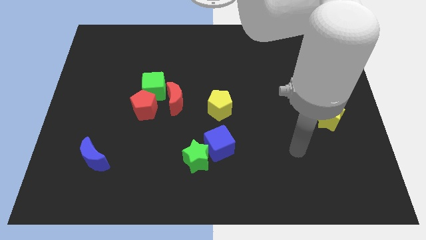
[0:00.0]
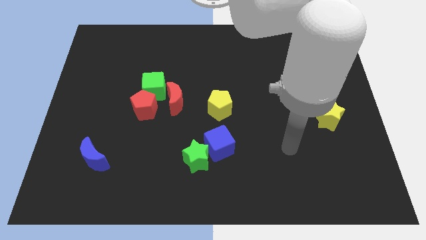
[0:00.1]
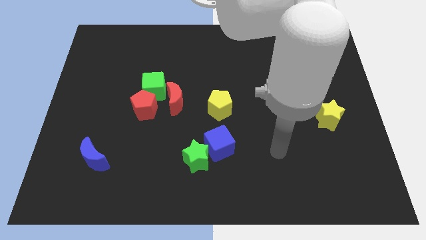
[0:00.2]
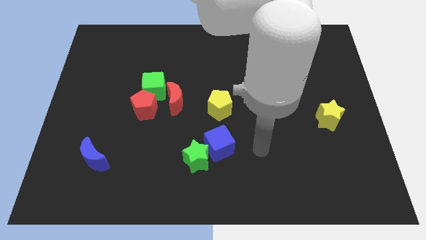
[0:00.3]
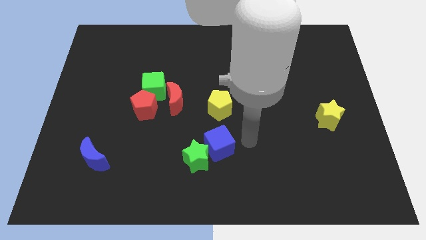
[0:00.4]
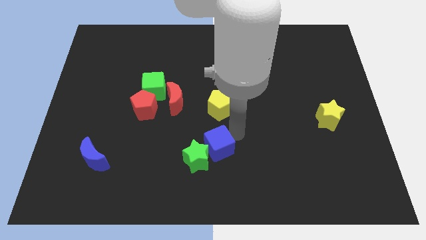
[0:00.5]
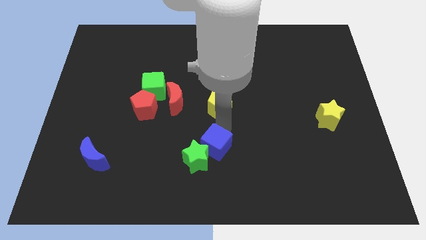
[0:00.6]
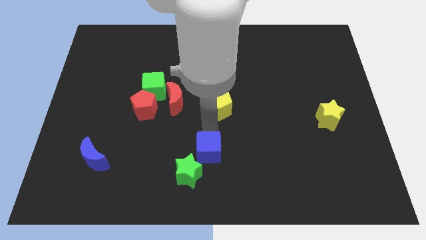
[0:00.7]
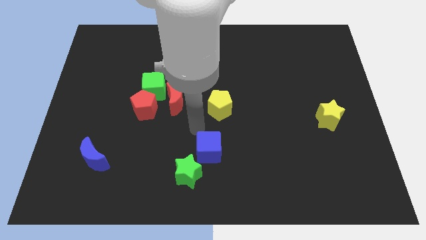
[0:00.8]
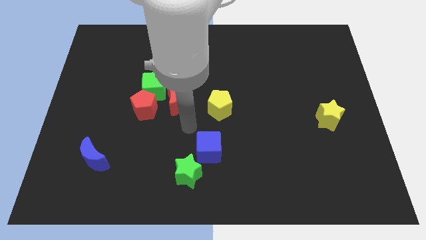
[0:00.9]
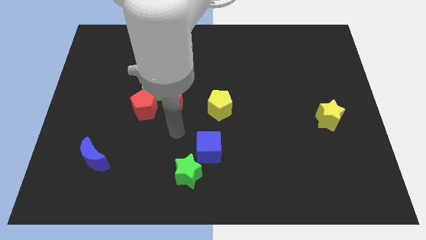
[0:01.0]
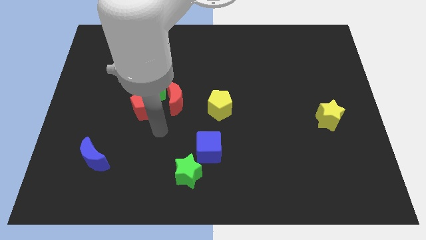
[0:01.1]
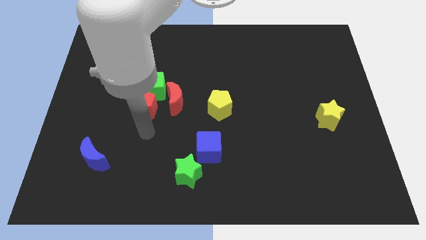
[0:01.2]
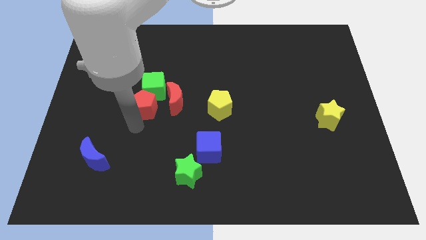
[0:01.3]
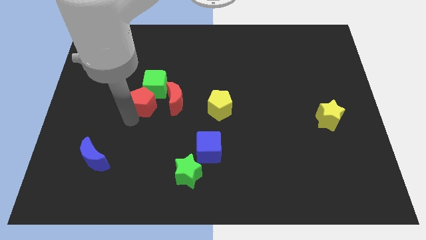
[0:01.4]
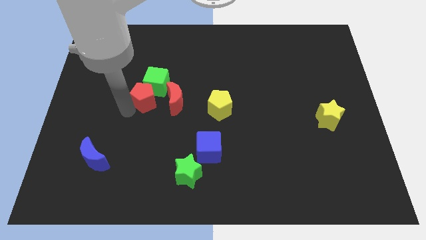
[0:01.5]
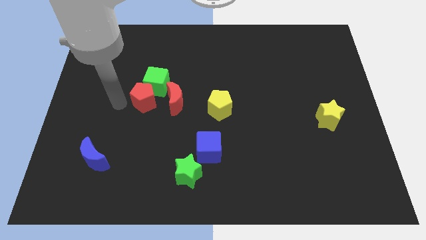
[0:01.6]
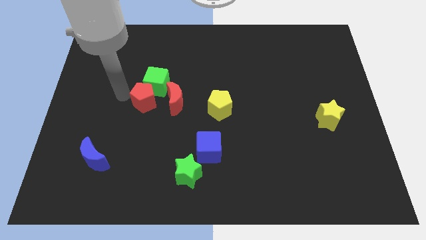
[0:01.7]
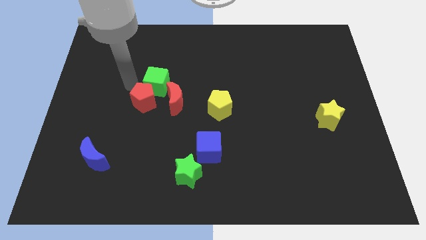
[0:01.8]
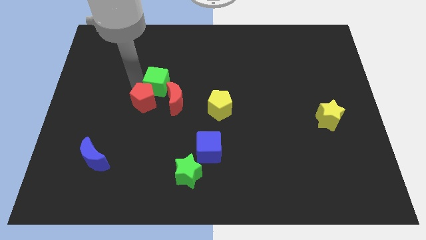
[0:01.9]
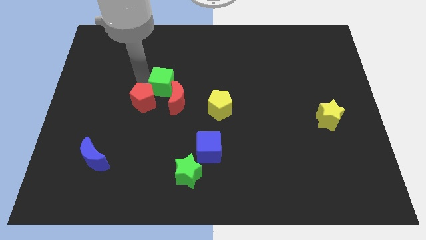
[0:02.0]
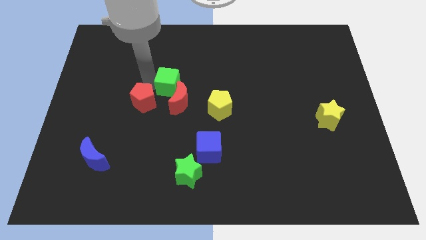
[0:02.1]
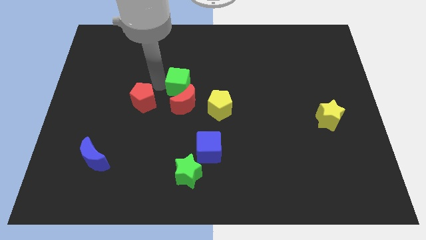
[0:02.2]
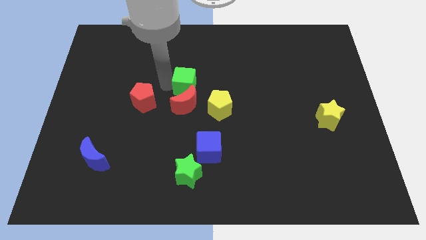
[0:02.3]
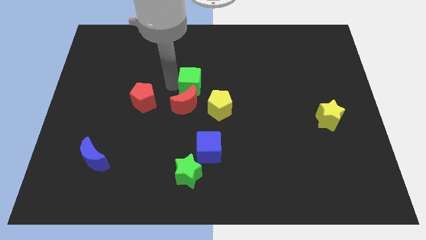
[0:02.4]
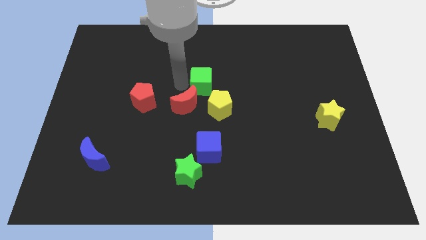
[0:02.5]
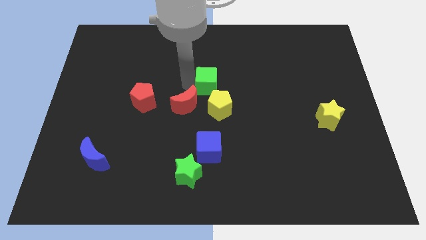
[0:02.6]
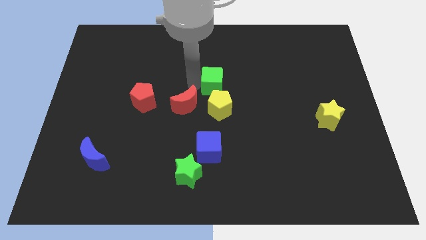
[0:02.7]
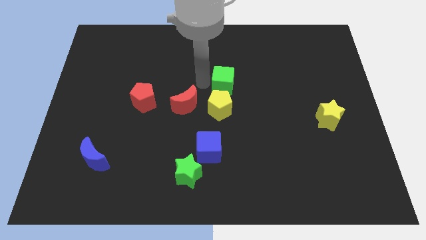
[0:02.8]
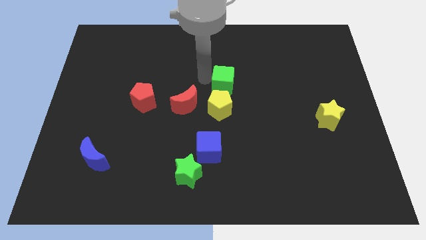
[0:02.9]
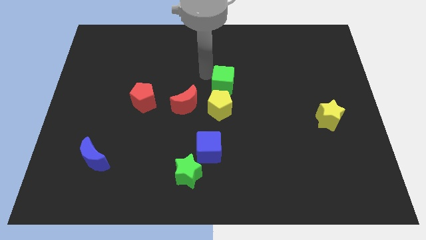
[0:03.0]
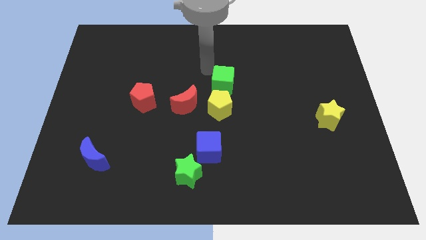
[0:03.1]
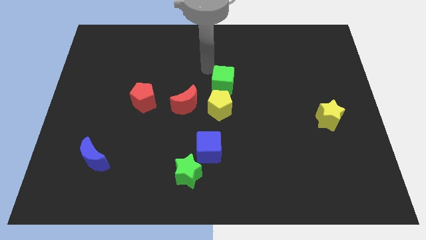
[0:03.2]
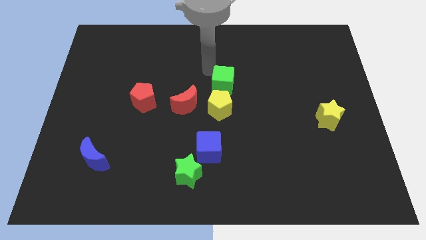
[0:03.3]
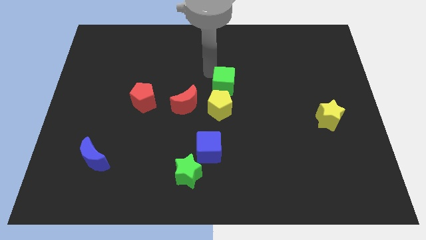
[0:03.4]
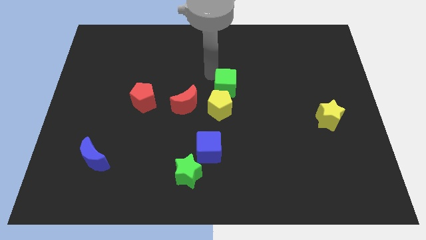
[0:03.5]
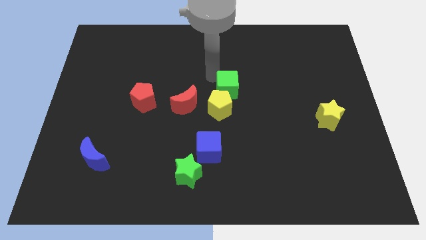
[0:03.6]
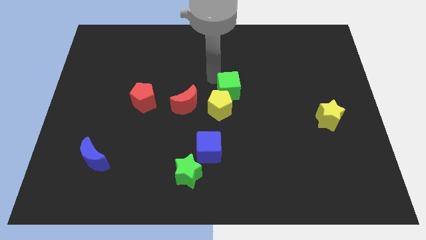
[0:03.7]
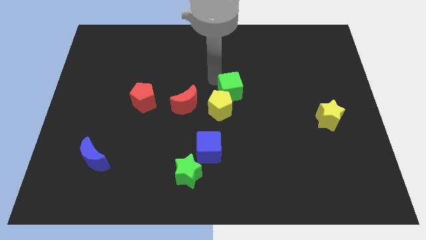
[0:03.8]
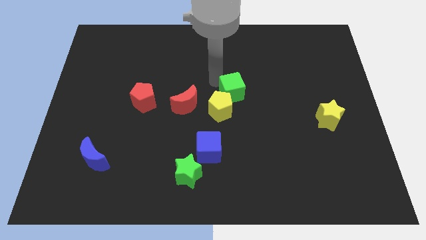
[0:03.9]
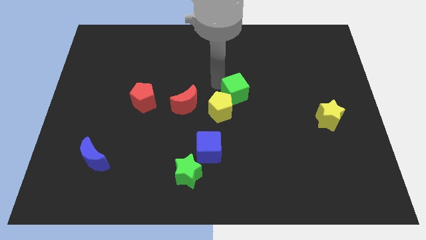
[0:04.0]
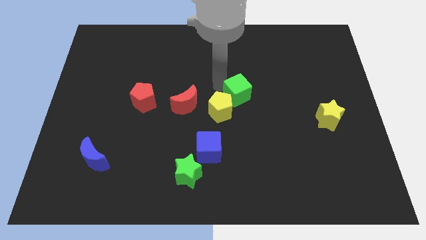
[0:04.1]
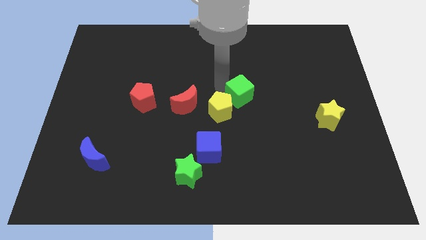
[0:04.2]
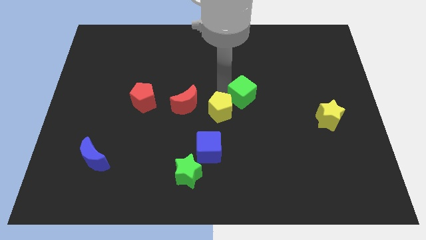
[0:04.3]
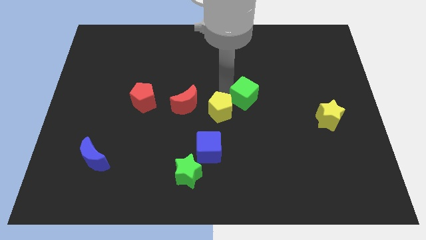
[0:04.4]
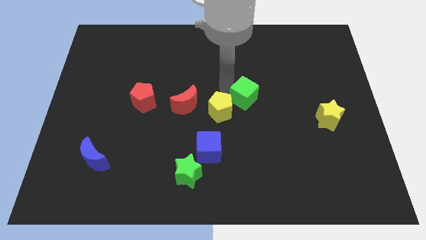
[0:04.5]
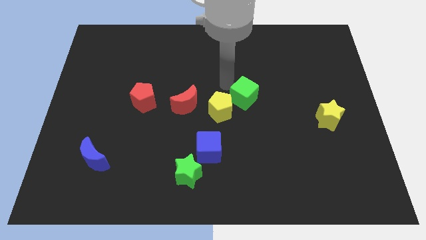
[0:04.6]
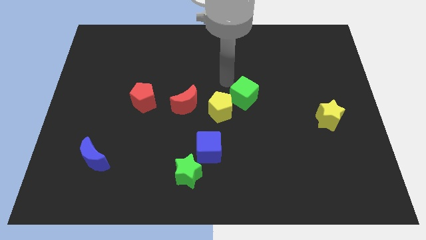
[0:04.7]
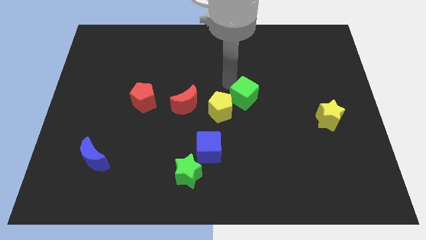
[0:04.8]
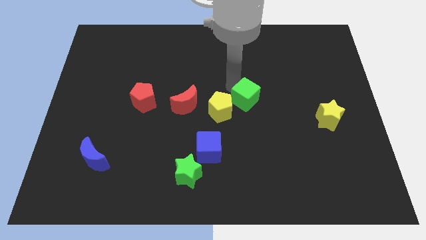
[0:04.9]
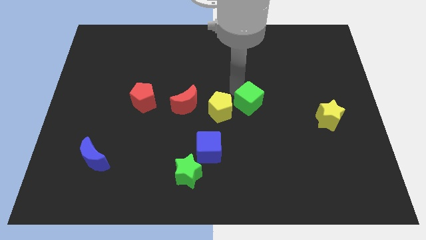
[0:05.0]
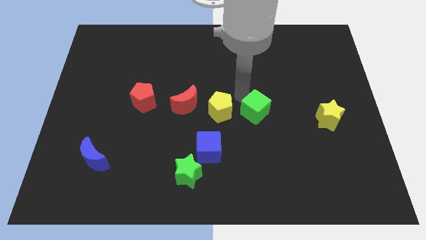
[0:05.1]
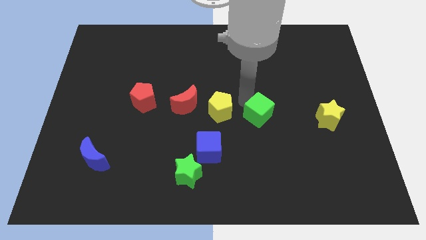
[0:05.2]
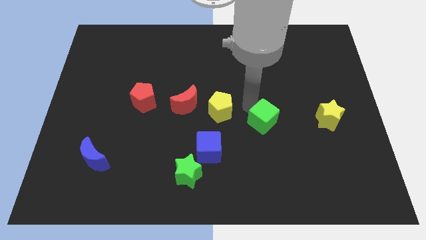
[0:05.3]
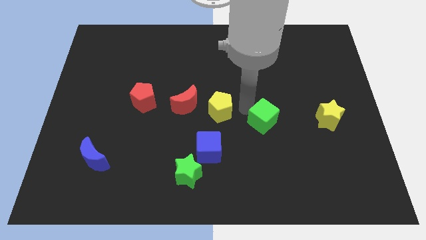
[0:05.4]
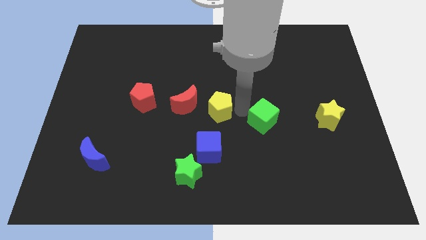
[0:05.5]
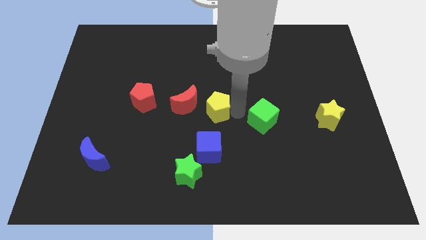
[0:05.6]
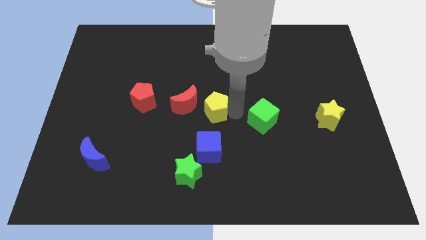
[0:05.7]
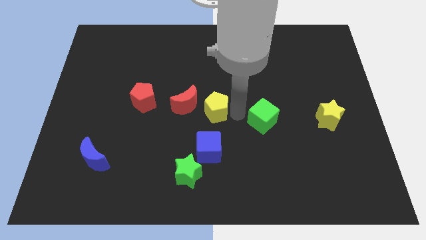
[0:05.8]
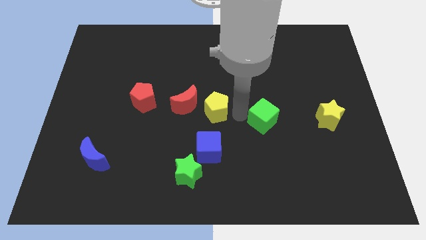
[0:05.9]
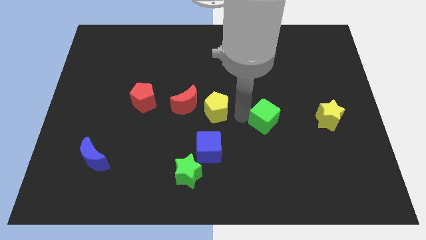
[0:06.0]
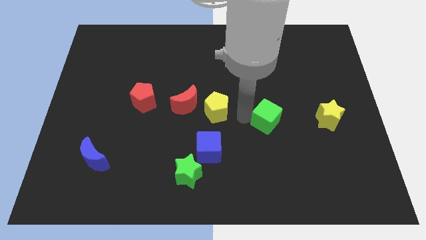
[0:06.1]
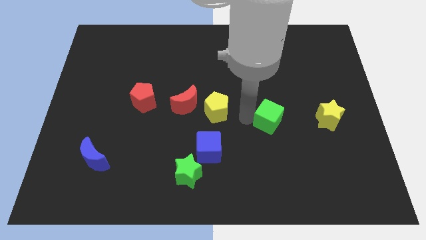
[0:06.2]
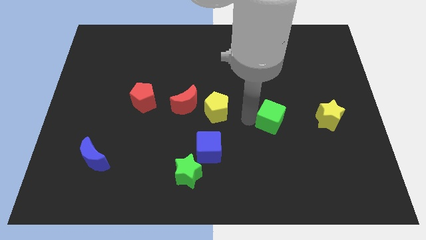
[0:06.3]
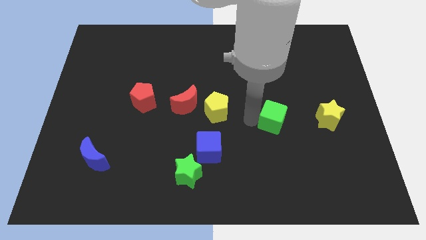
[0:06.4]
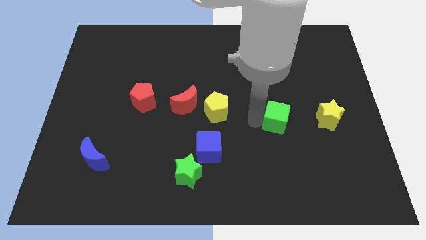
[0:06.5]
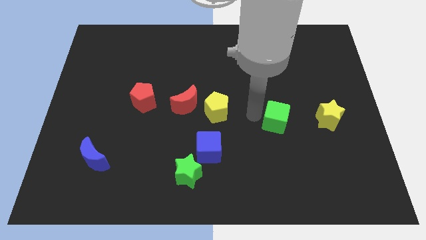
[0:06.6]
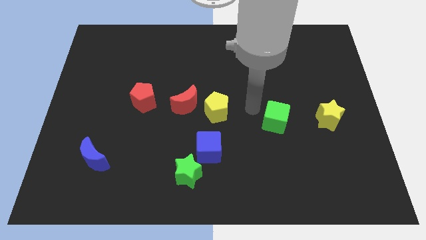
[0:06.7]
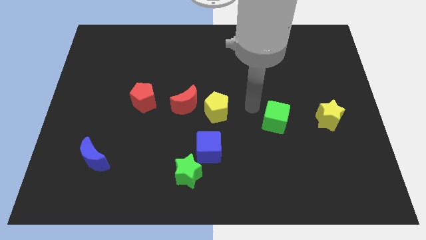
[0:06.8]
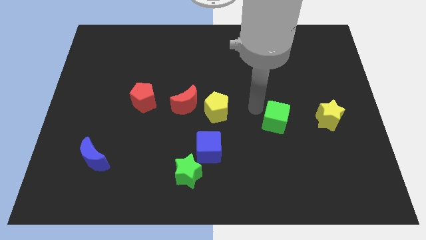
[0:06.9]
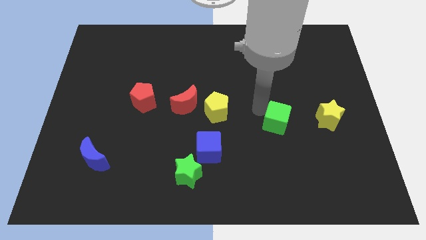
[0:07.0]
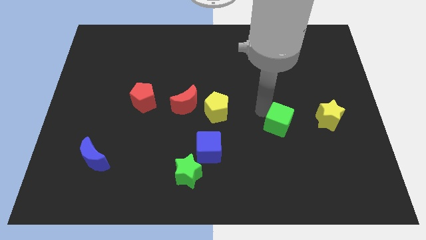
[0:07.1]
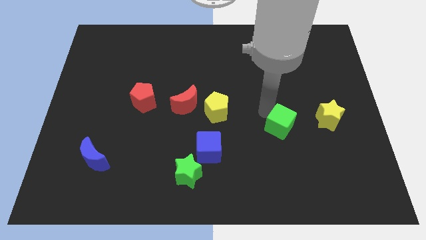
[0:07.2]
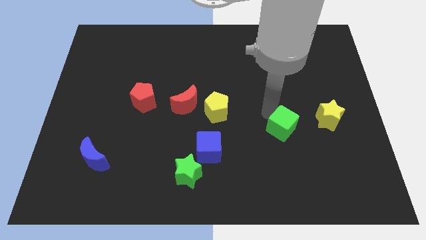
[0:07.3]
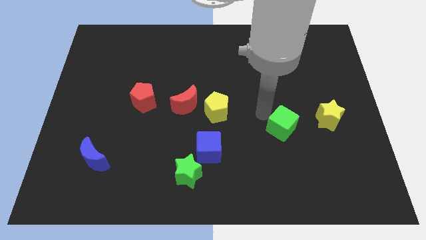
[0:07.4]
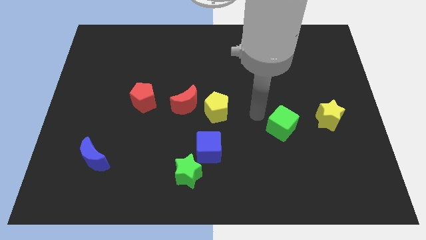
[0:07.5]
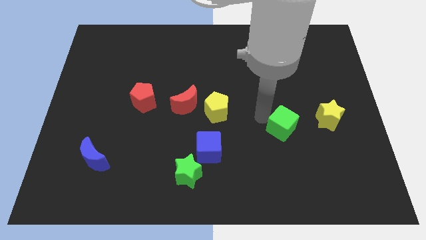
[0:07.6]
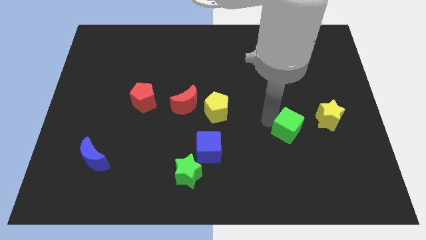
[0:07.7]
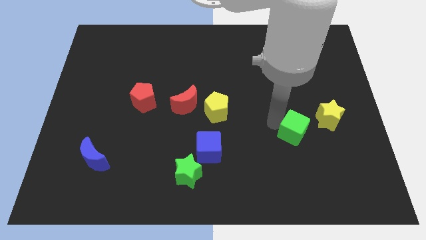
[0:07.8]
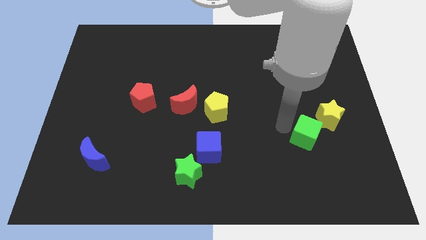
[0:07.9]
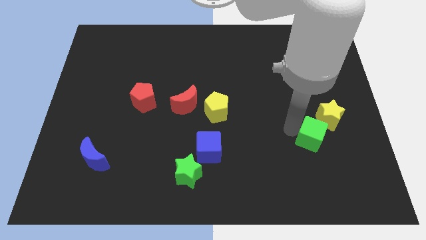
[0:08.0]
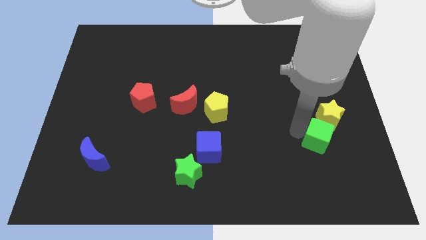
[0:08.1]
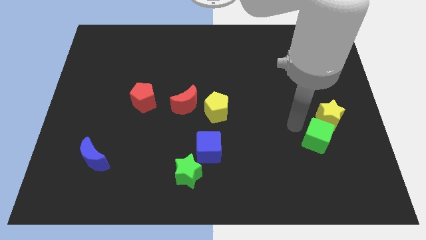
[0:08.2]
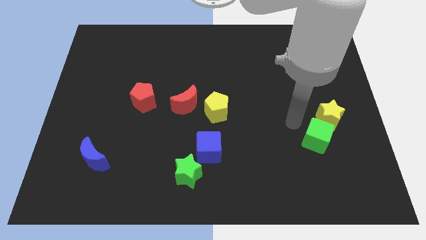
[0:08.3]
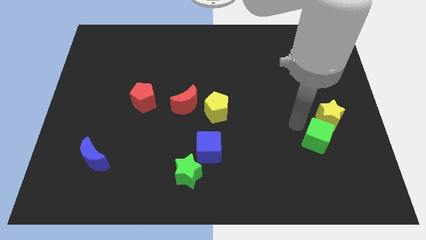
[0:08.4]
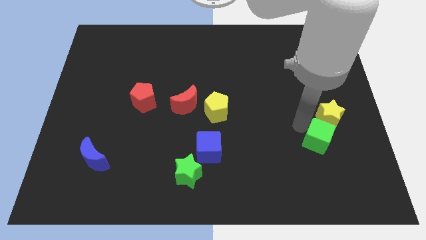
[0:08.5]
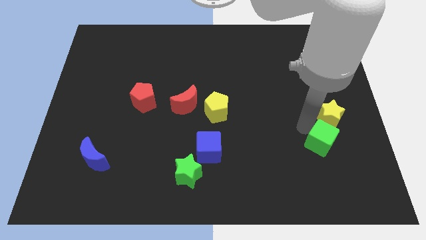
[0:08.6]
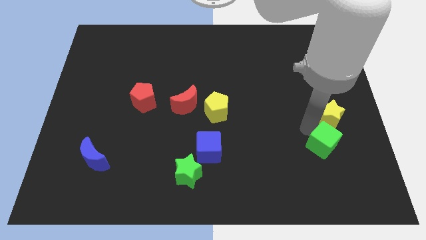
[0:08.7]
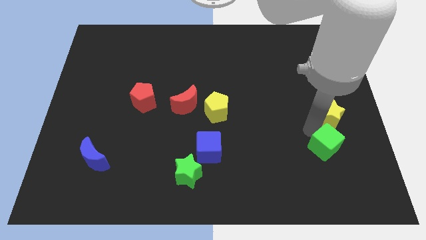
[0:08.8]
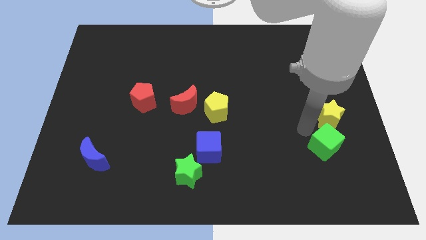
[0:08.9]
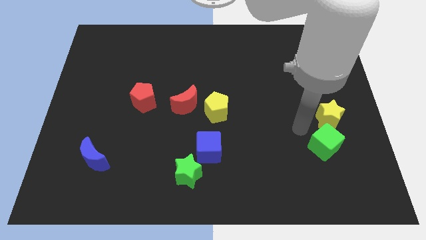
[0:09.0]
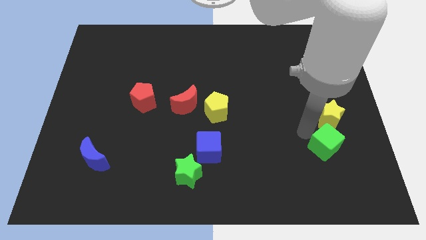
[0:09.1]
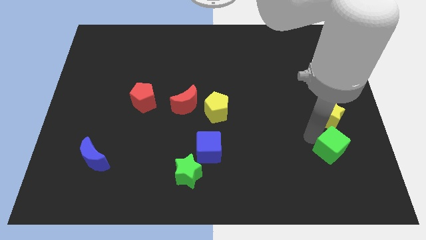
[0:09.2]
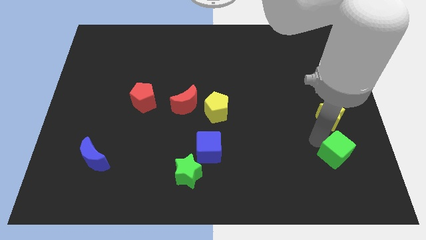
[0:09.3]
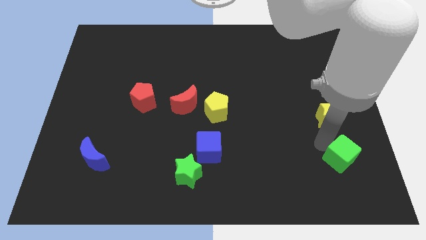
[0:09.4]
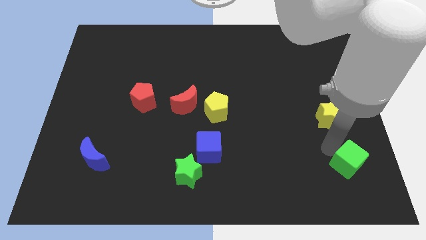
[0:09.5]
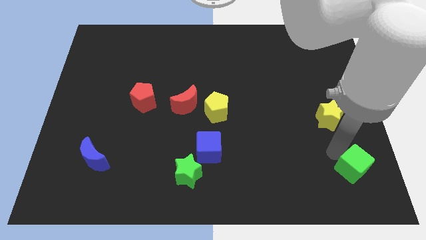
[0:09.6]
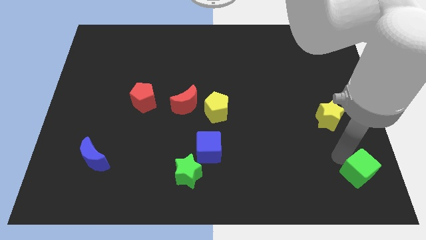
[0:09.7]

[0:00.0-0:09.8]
move the green cube to the bottom right
